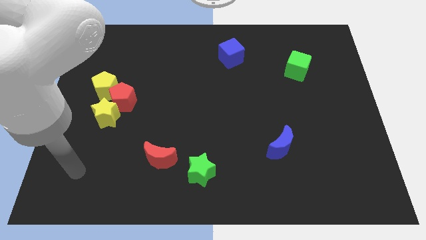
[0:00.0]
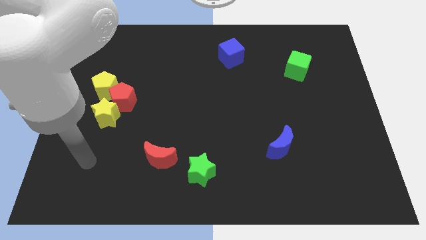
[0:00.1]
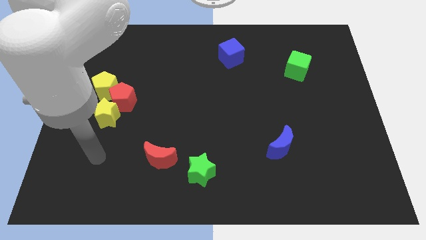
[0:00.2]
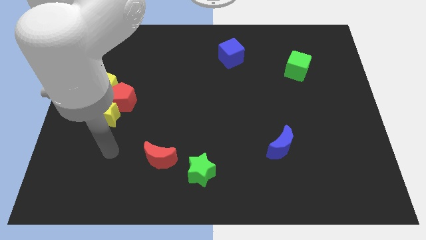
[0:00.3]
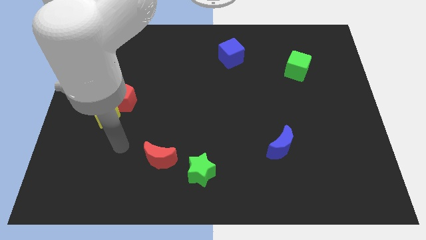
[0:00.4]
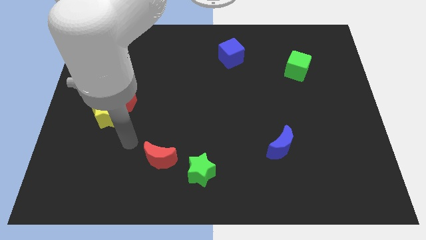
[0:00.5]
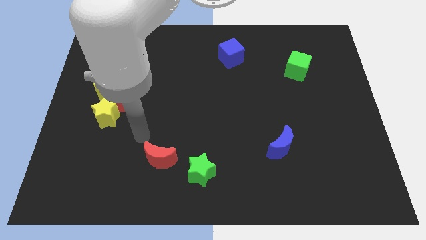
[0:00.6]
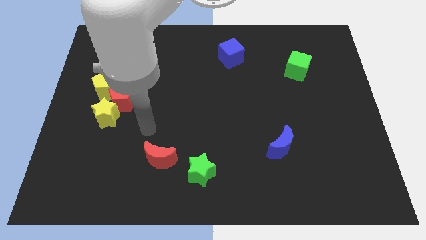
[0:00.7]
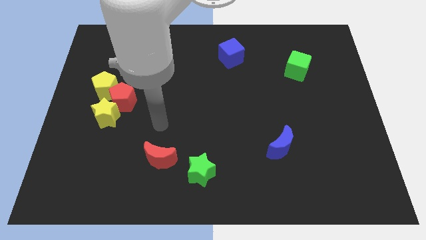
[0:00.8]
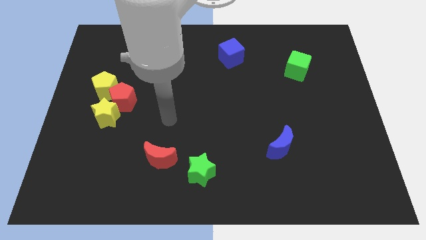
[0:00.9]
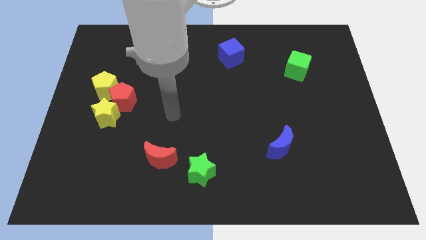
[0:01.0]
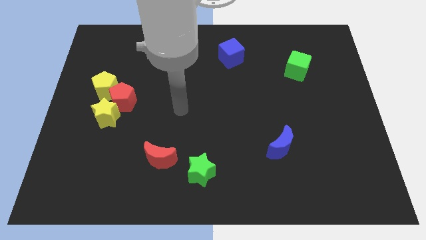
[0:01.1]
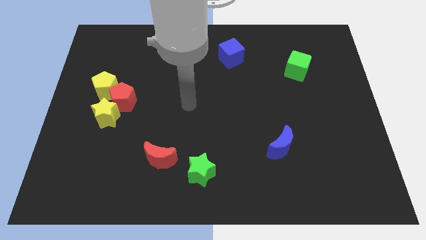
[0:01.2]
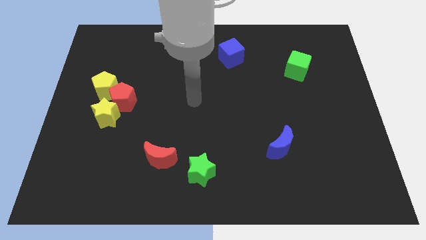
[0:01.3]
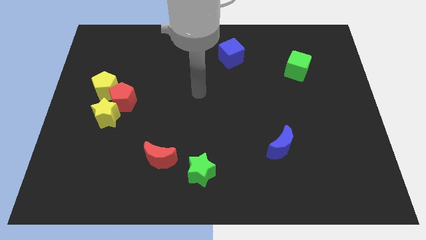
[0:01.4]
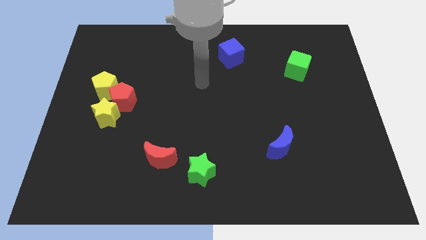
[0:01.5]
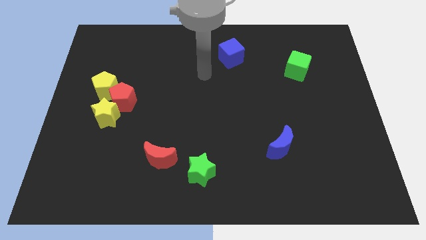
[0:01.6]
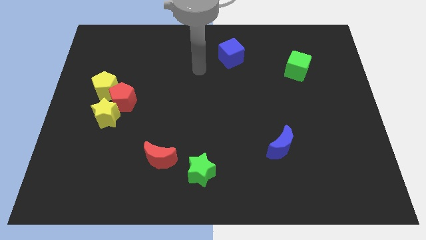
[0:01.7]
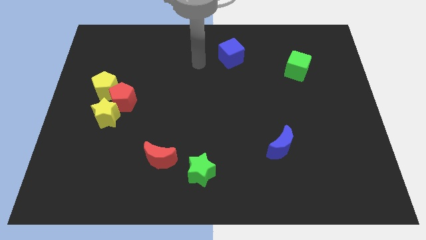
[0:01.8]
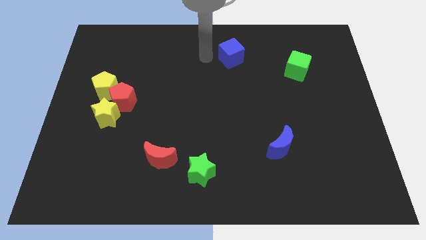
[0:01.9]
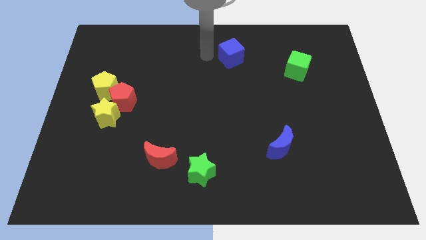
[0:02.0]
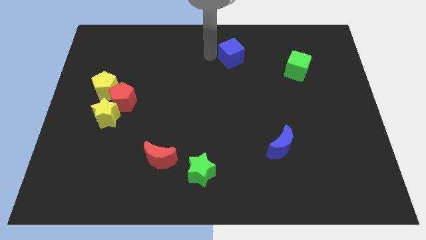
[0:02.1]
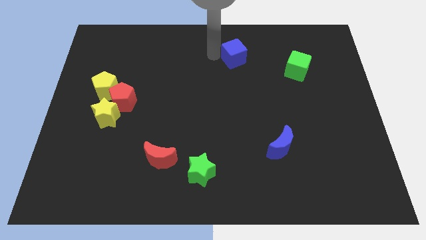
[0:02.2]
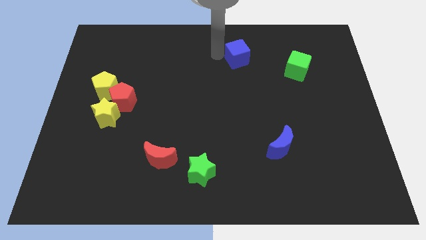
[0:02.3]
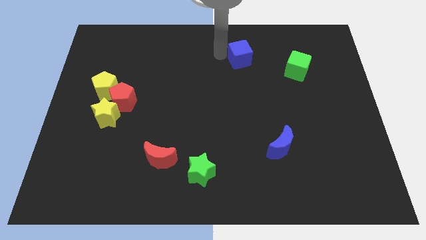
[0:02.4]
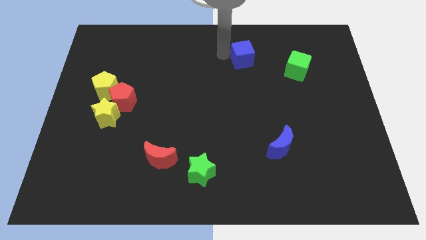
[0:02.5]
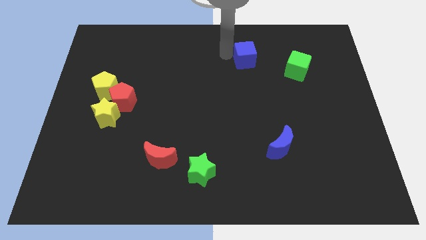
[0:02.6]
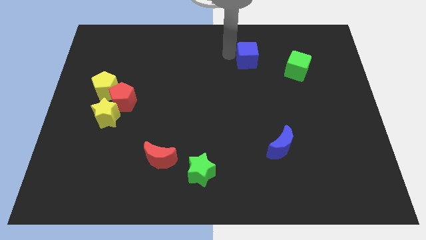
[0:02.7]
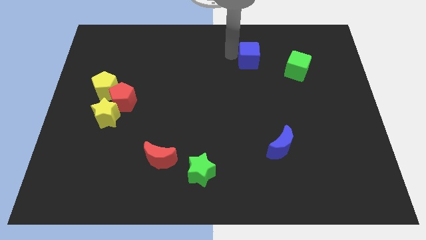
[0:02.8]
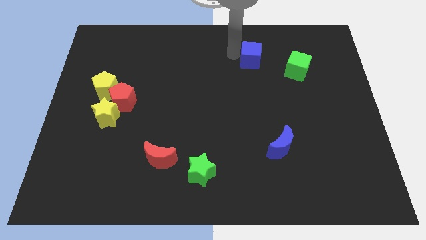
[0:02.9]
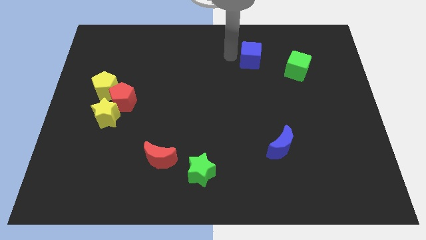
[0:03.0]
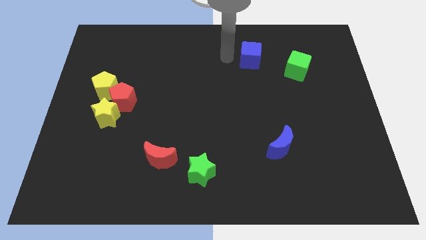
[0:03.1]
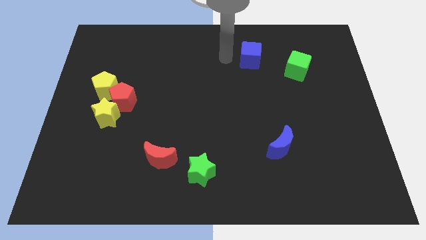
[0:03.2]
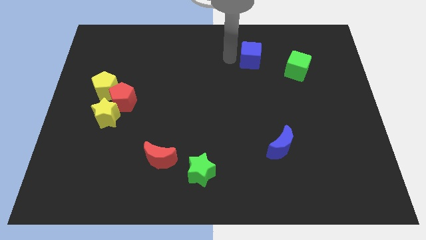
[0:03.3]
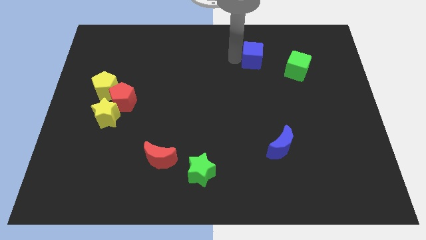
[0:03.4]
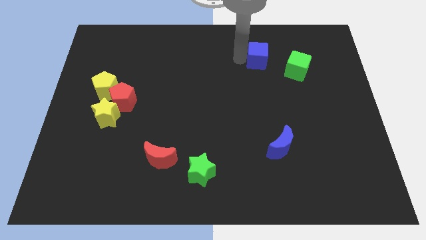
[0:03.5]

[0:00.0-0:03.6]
slightly slide the blue cube to the right

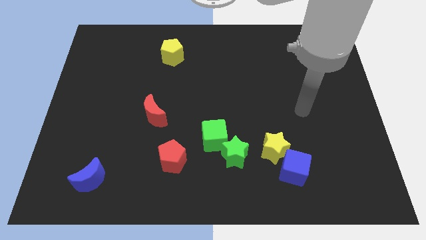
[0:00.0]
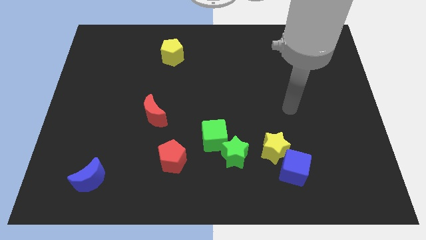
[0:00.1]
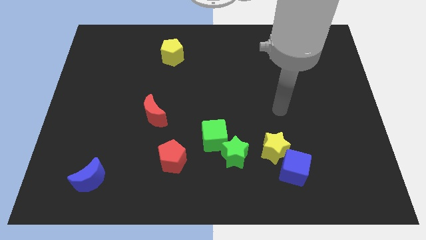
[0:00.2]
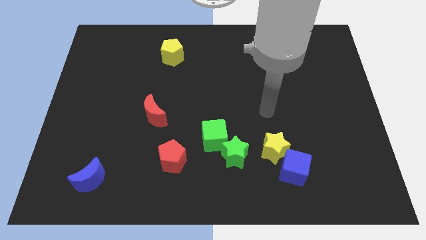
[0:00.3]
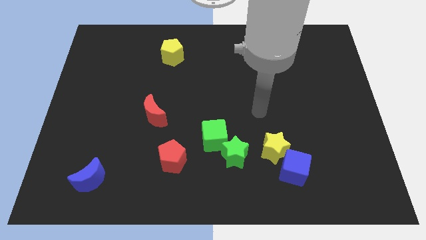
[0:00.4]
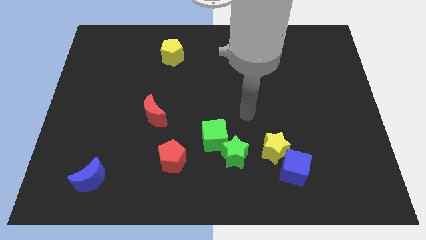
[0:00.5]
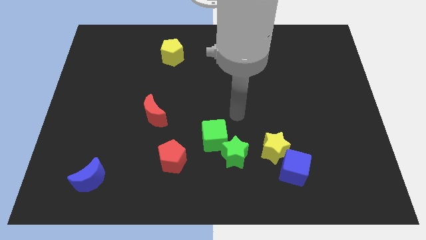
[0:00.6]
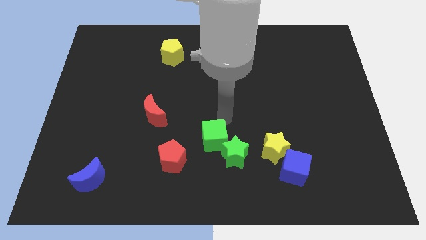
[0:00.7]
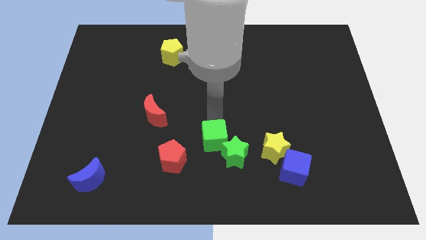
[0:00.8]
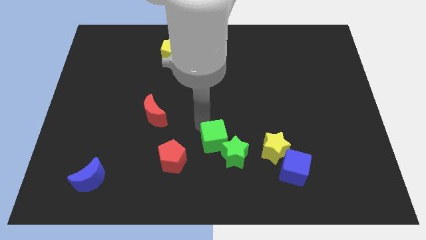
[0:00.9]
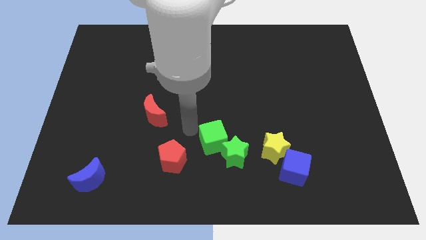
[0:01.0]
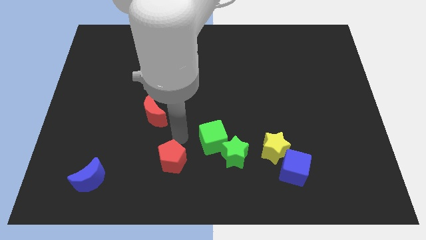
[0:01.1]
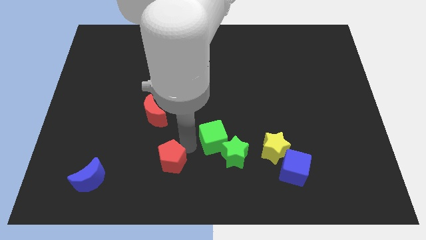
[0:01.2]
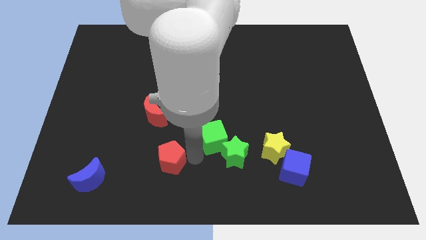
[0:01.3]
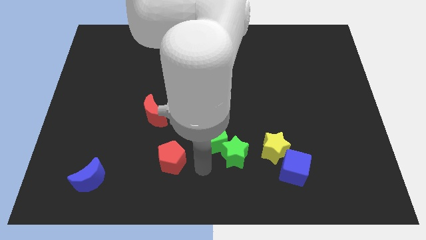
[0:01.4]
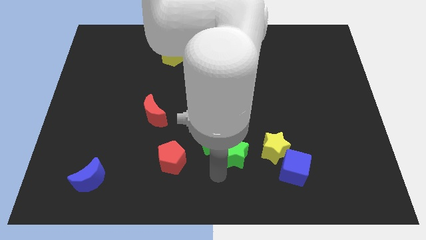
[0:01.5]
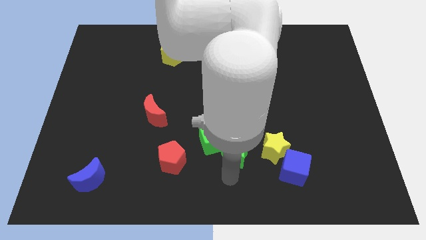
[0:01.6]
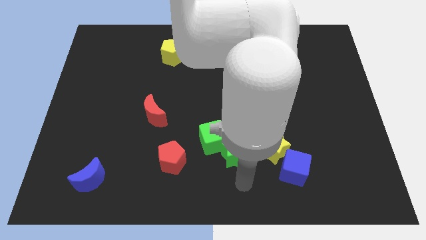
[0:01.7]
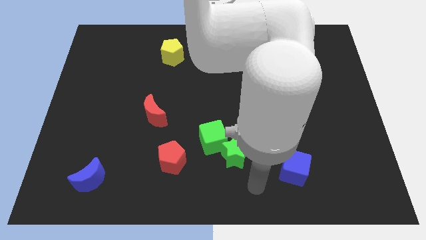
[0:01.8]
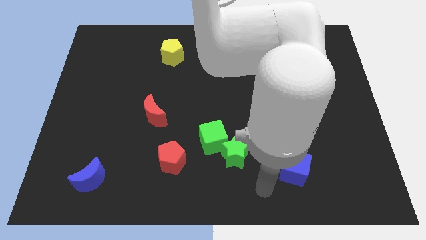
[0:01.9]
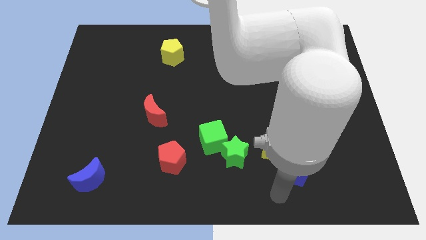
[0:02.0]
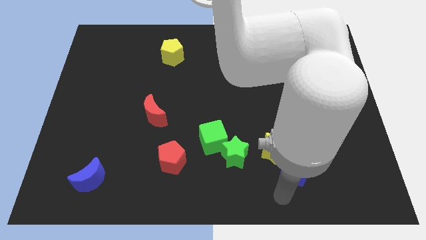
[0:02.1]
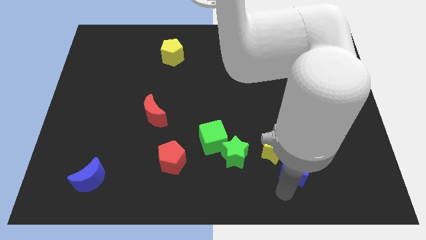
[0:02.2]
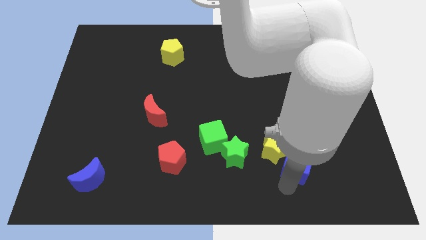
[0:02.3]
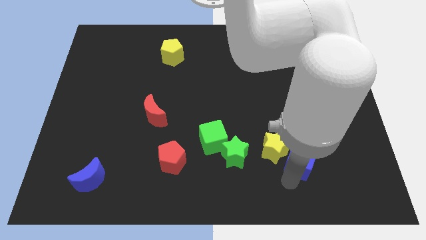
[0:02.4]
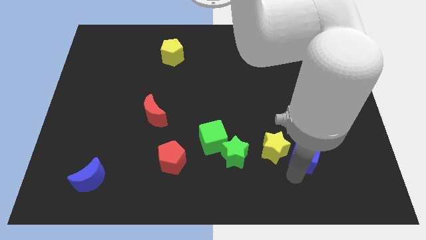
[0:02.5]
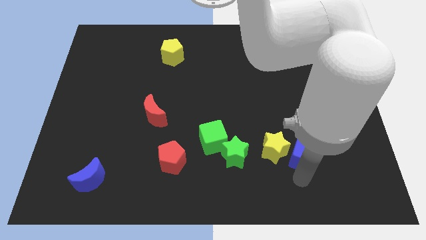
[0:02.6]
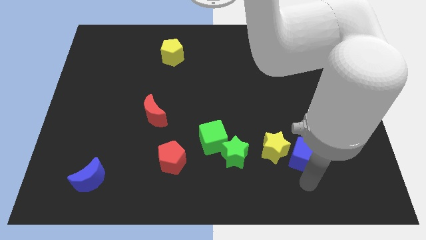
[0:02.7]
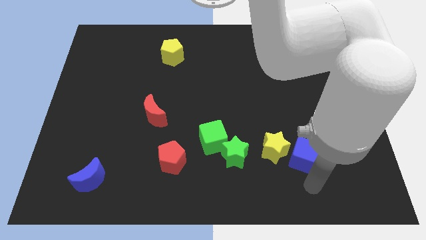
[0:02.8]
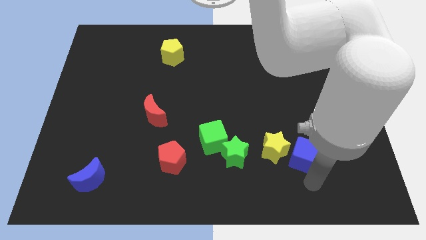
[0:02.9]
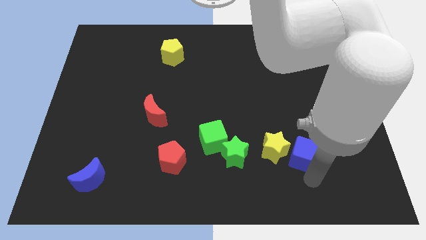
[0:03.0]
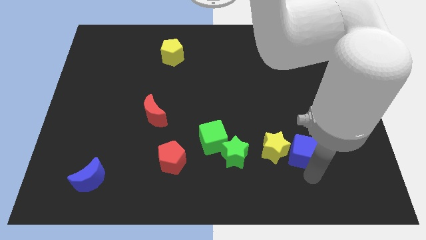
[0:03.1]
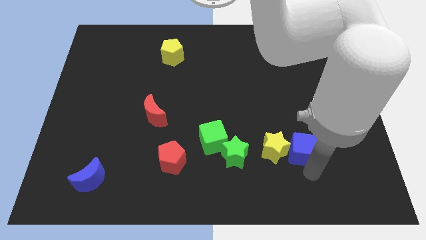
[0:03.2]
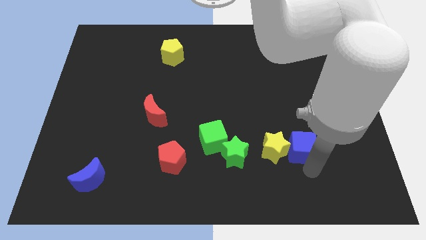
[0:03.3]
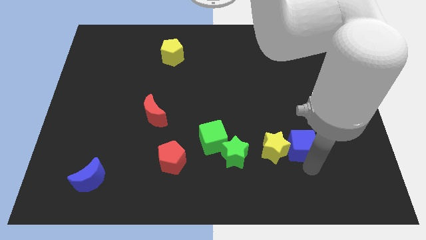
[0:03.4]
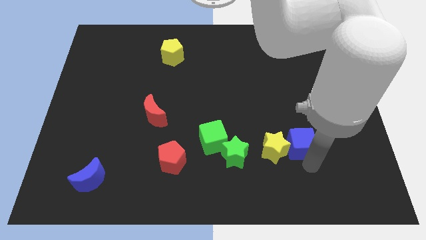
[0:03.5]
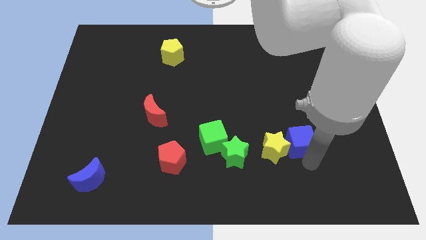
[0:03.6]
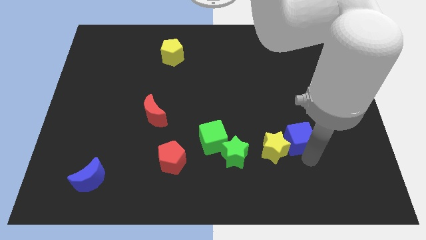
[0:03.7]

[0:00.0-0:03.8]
slide the blue cube somewhat up

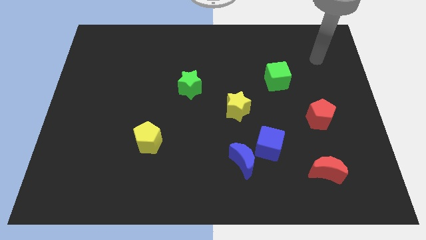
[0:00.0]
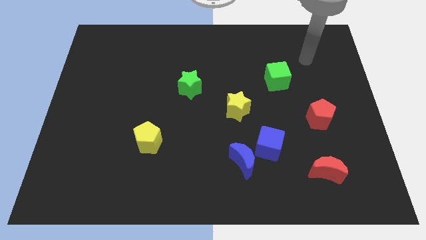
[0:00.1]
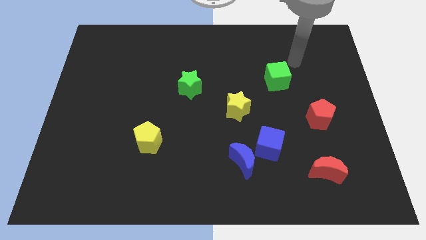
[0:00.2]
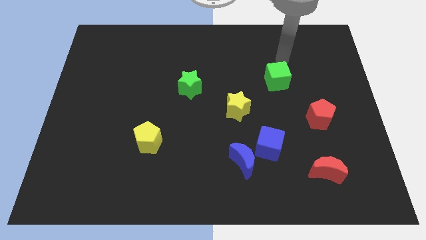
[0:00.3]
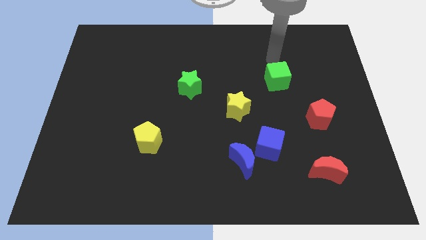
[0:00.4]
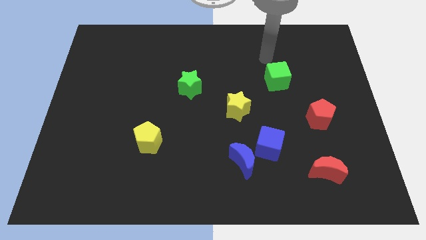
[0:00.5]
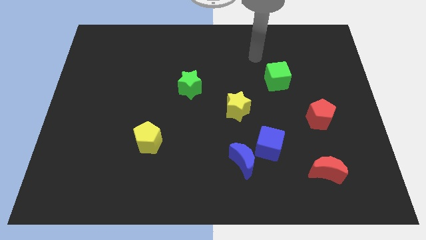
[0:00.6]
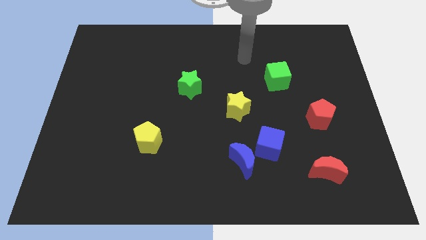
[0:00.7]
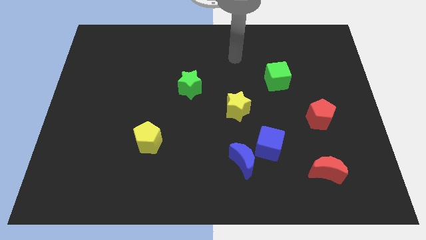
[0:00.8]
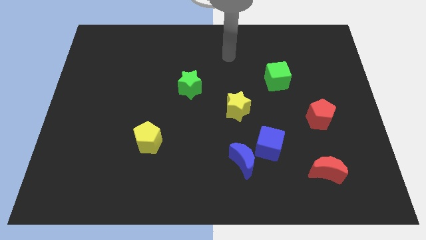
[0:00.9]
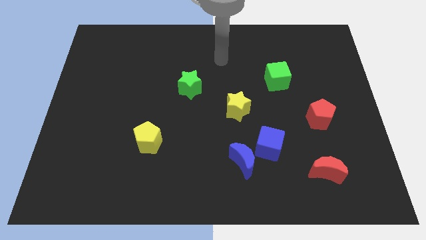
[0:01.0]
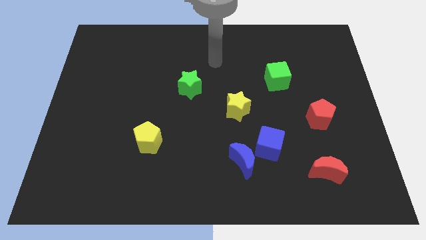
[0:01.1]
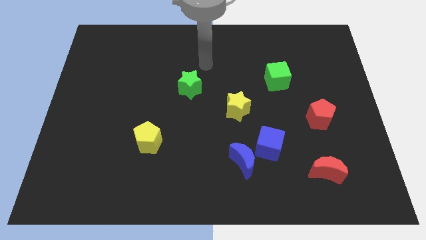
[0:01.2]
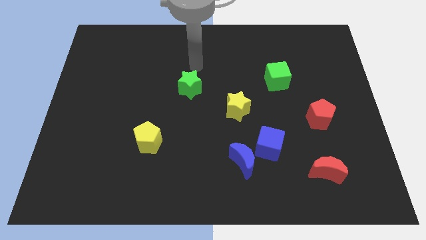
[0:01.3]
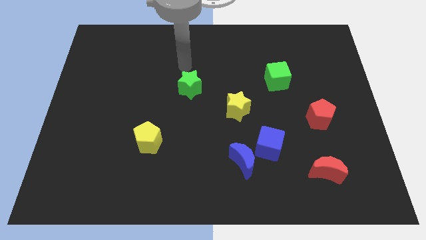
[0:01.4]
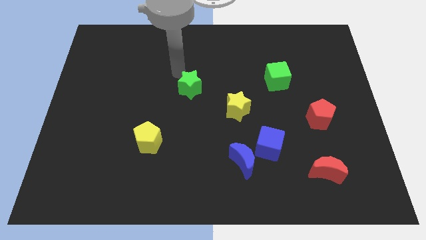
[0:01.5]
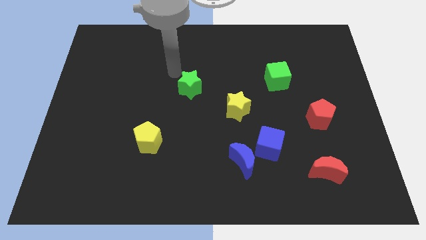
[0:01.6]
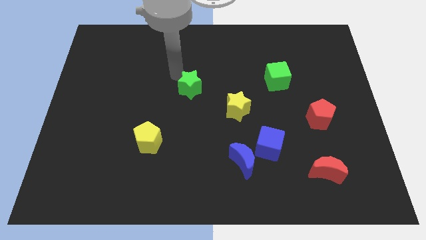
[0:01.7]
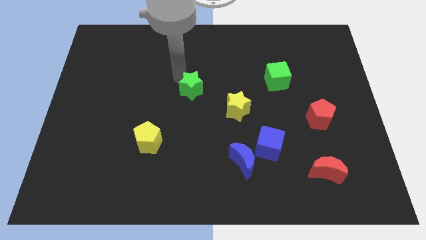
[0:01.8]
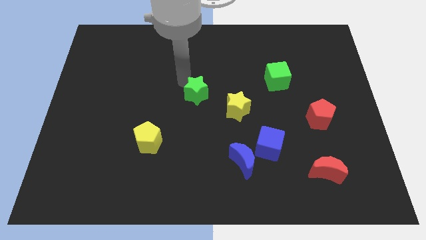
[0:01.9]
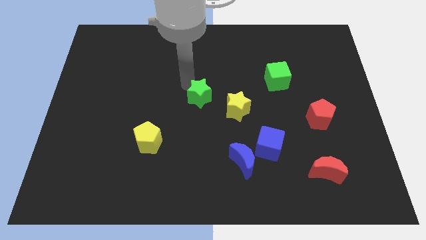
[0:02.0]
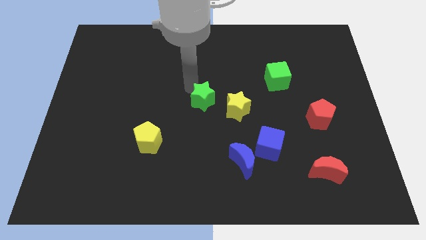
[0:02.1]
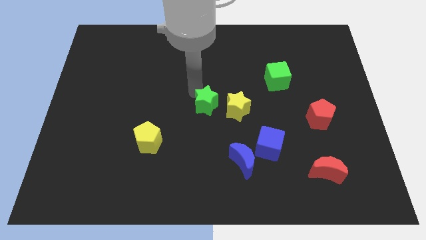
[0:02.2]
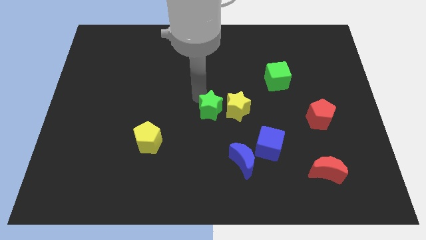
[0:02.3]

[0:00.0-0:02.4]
slightly push the green star downwards and right diagonally
